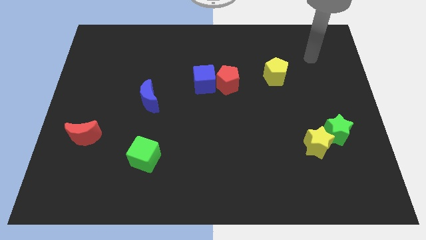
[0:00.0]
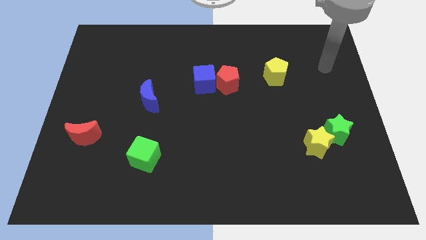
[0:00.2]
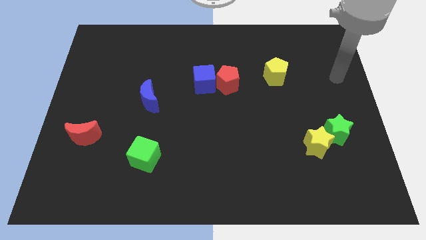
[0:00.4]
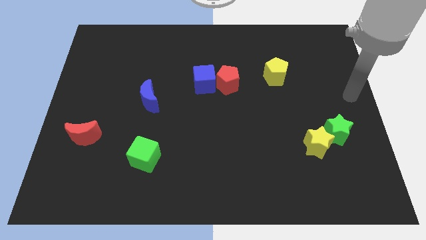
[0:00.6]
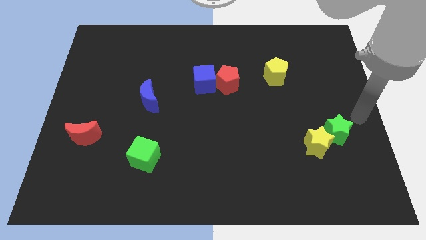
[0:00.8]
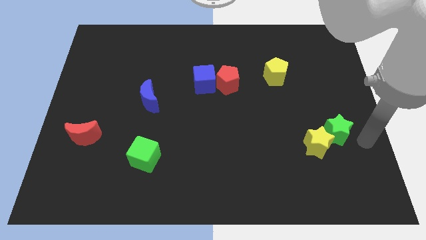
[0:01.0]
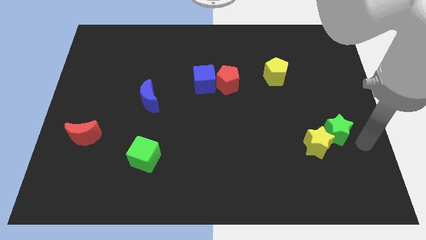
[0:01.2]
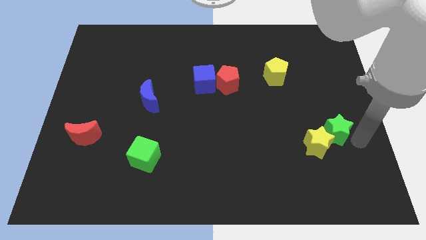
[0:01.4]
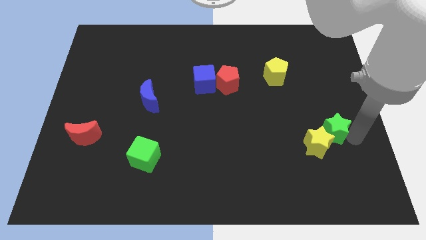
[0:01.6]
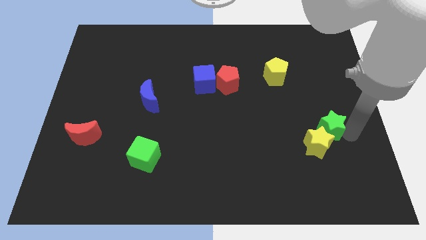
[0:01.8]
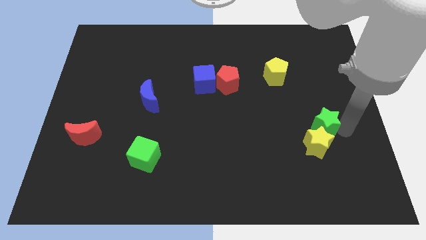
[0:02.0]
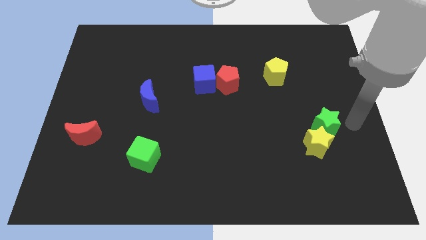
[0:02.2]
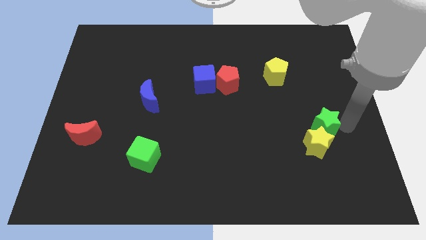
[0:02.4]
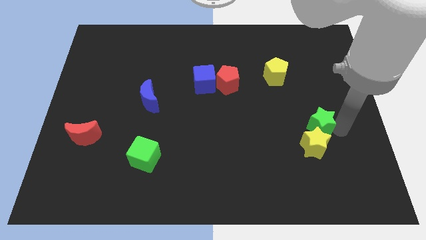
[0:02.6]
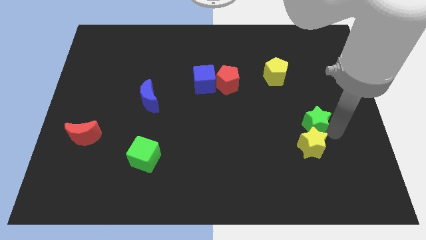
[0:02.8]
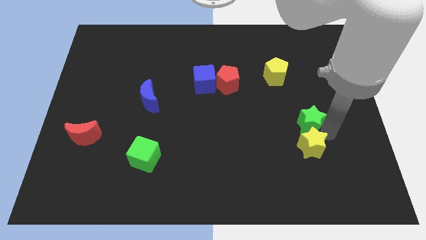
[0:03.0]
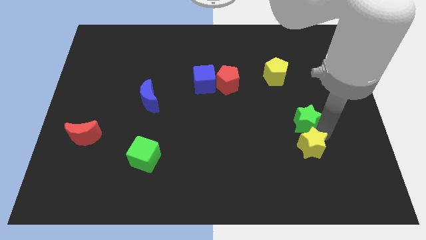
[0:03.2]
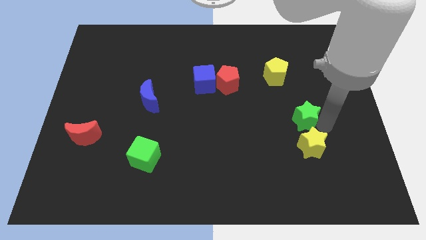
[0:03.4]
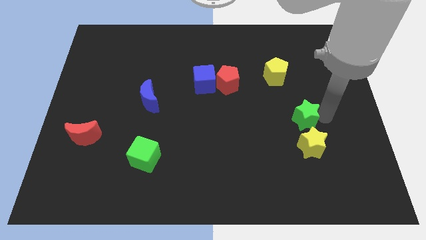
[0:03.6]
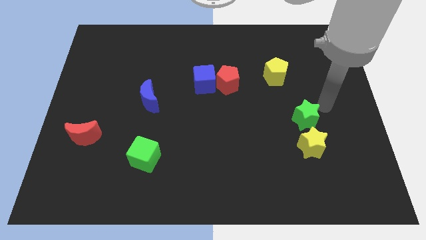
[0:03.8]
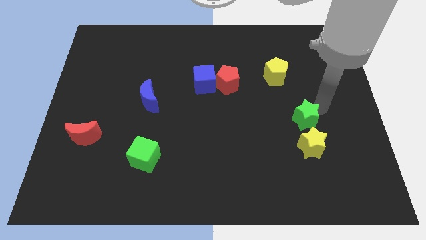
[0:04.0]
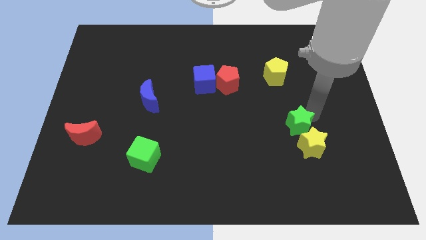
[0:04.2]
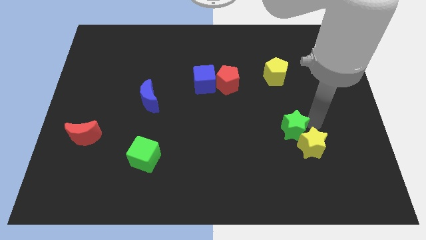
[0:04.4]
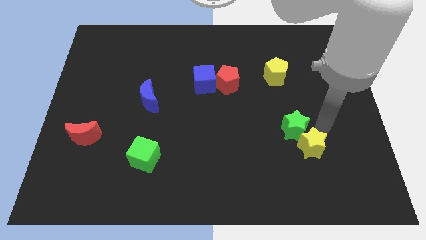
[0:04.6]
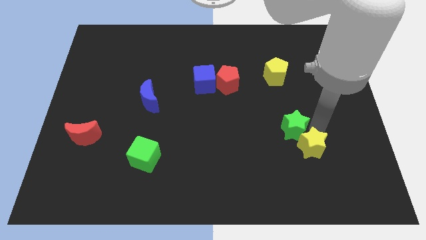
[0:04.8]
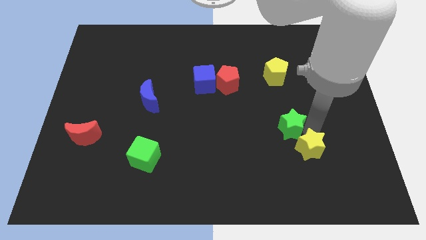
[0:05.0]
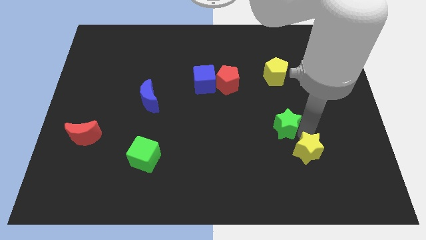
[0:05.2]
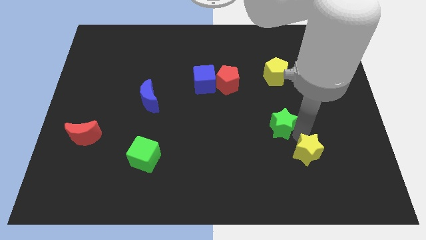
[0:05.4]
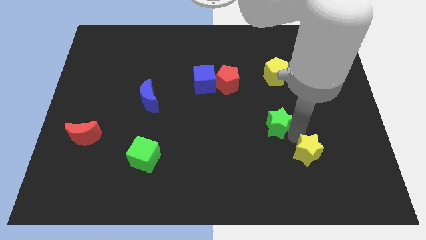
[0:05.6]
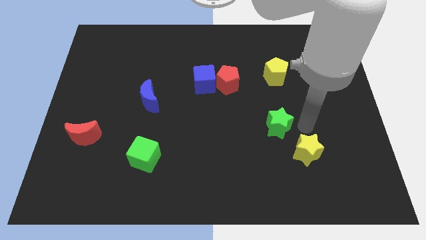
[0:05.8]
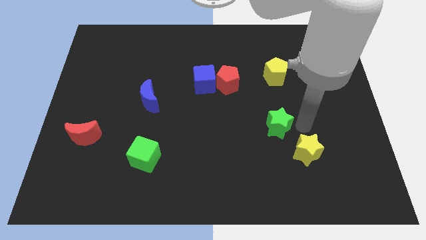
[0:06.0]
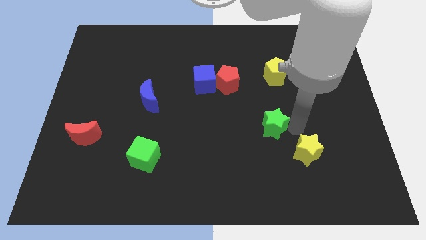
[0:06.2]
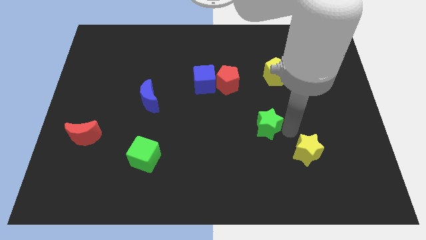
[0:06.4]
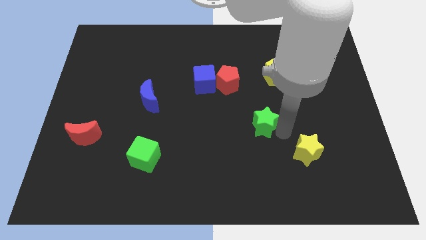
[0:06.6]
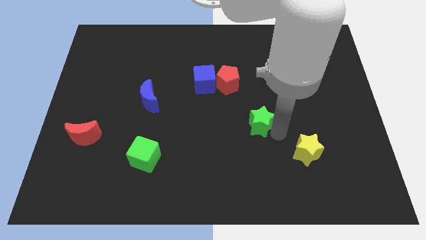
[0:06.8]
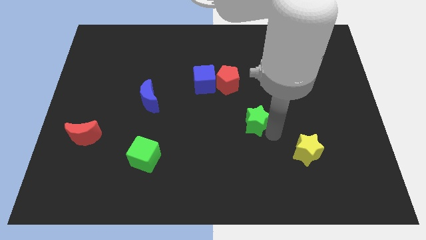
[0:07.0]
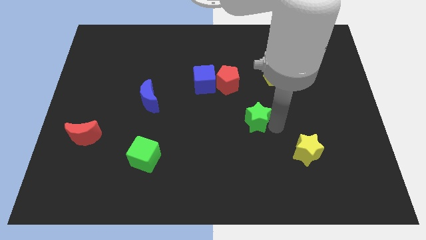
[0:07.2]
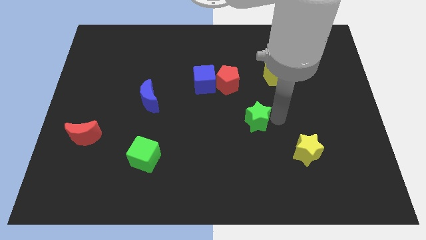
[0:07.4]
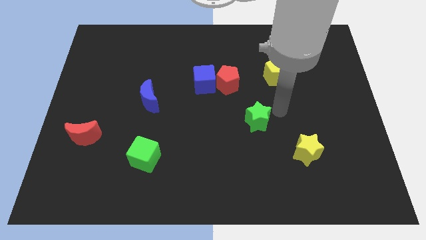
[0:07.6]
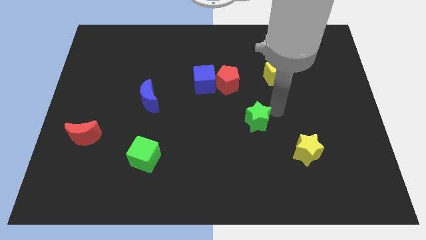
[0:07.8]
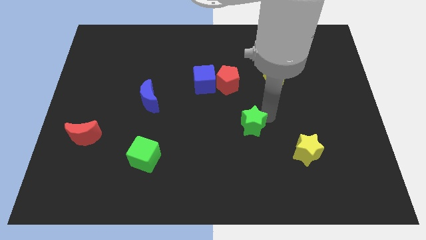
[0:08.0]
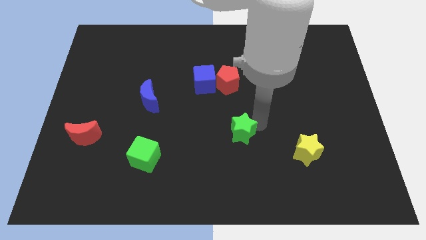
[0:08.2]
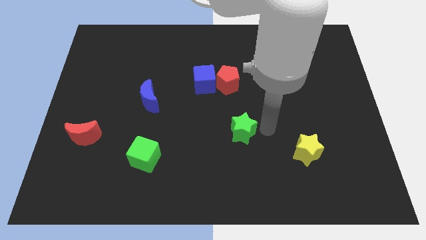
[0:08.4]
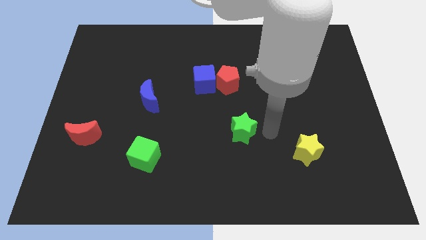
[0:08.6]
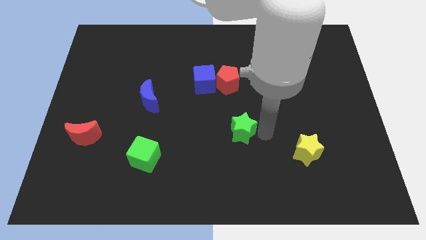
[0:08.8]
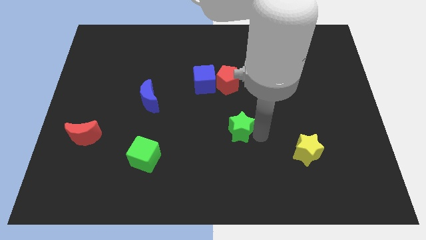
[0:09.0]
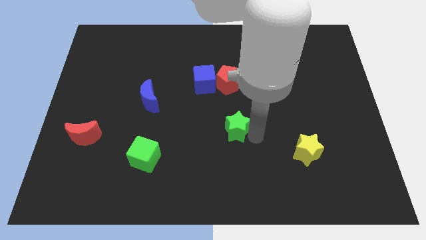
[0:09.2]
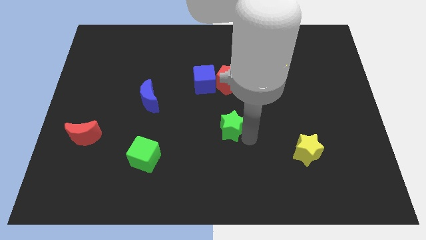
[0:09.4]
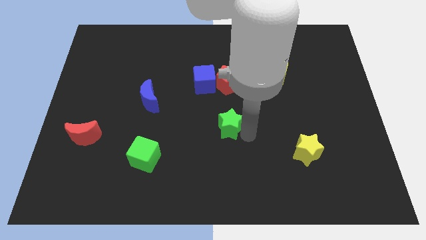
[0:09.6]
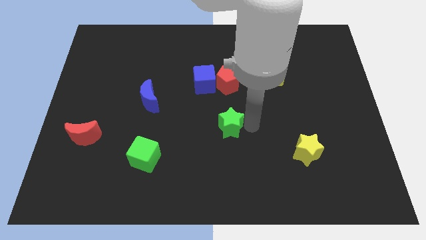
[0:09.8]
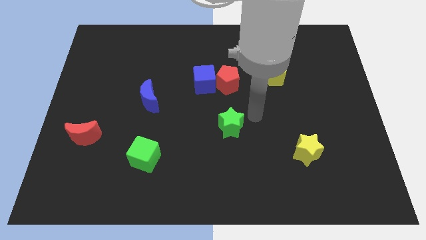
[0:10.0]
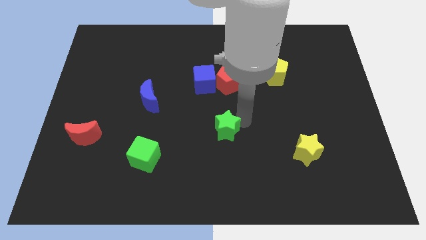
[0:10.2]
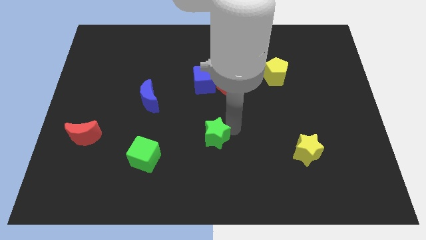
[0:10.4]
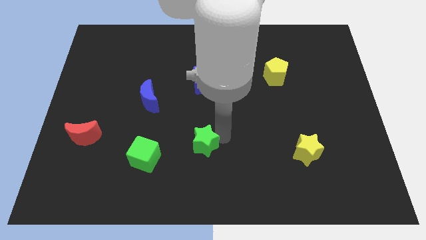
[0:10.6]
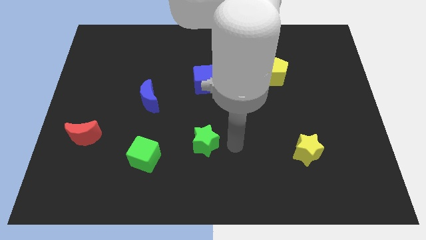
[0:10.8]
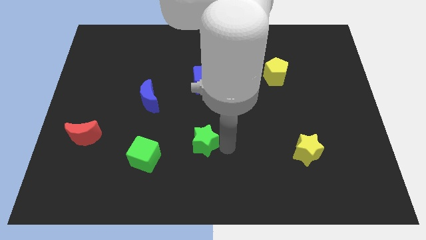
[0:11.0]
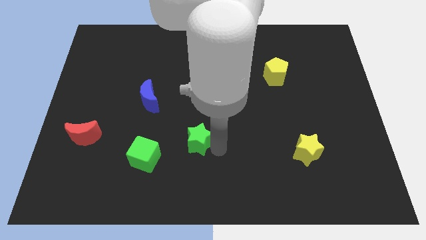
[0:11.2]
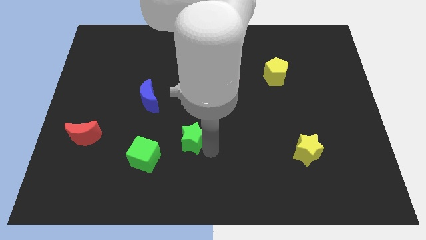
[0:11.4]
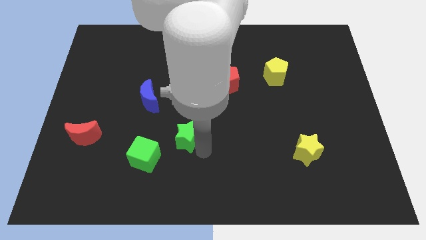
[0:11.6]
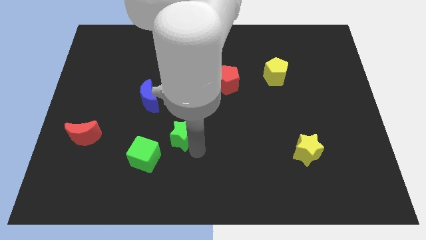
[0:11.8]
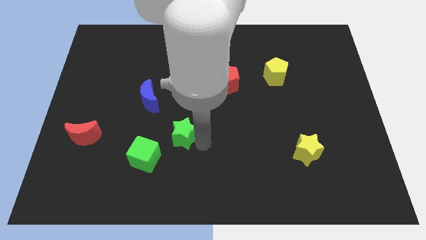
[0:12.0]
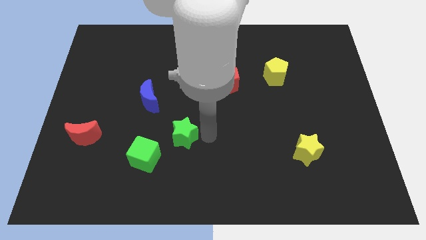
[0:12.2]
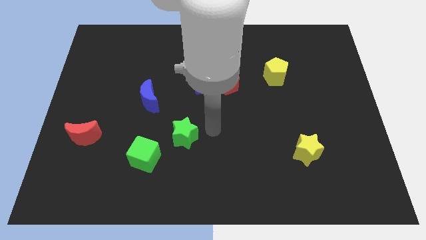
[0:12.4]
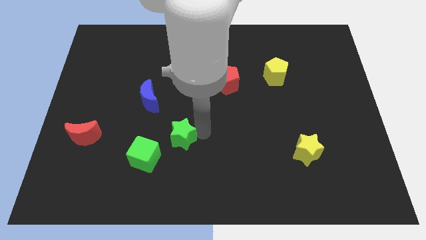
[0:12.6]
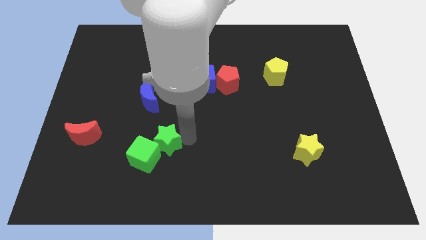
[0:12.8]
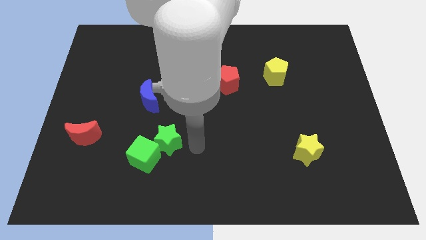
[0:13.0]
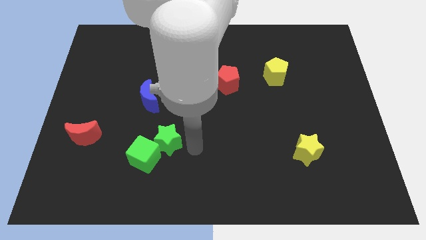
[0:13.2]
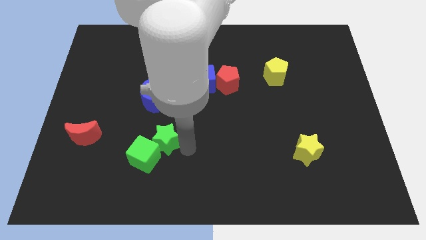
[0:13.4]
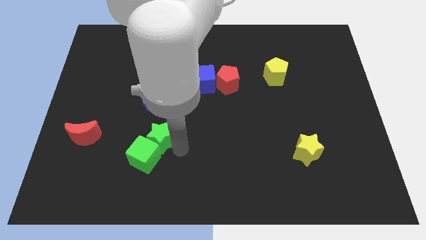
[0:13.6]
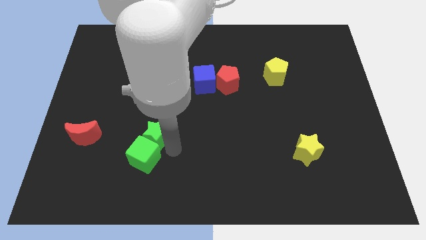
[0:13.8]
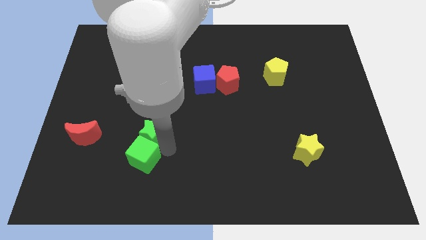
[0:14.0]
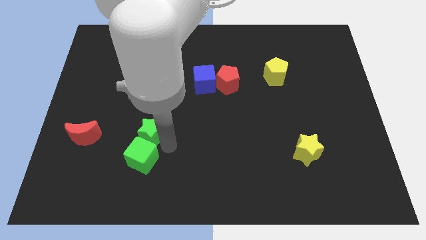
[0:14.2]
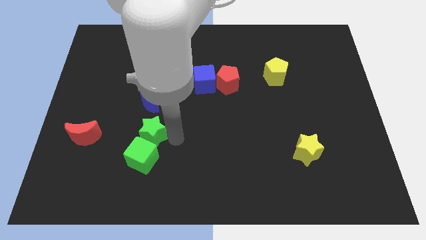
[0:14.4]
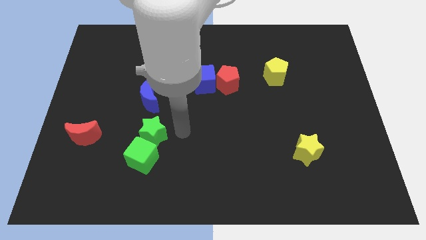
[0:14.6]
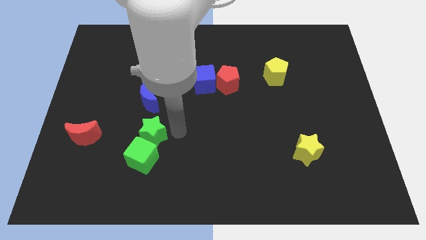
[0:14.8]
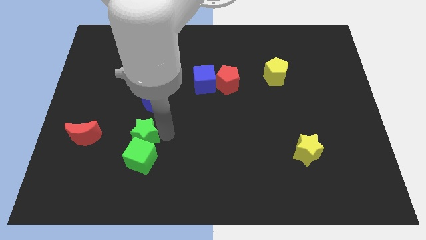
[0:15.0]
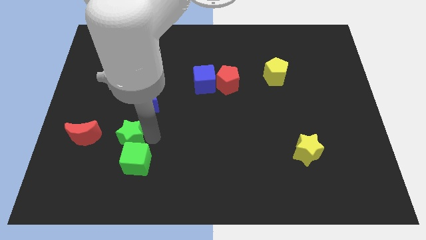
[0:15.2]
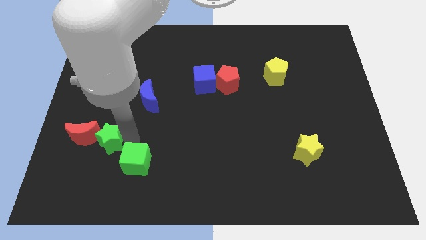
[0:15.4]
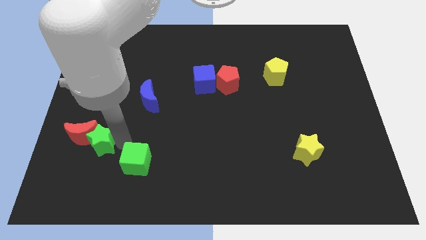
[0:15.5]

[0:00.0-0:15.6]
move the green star towards the red moon

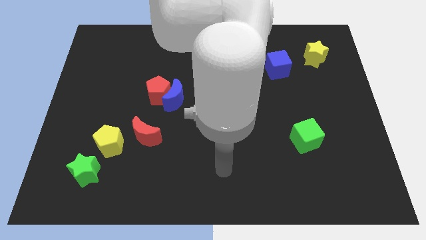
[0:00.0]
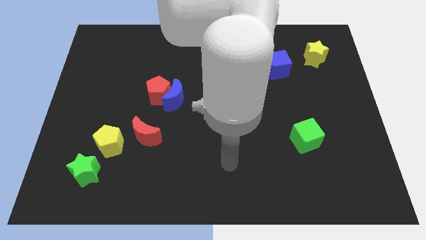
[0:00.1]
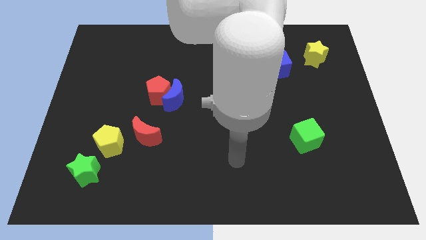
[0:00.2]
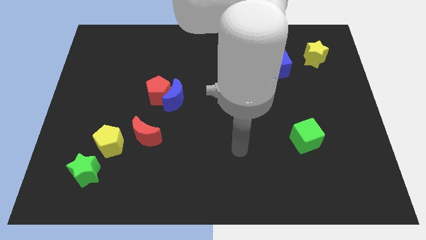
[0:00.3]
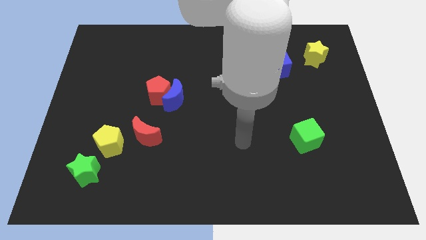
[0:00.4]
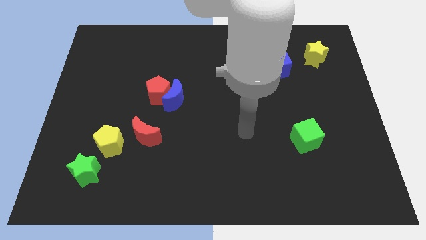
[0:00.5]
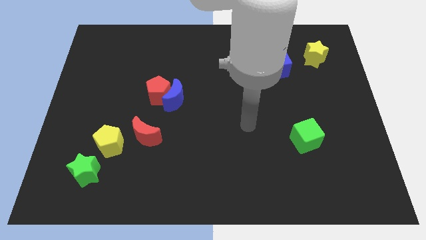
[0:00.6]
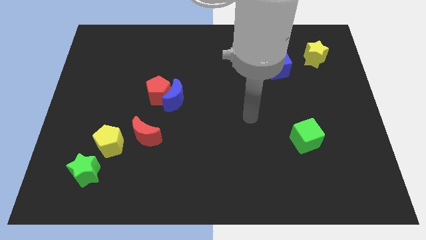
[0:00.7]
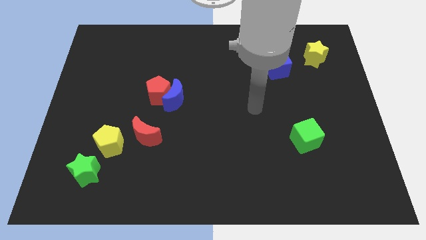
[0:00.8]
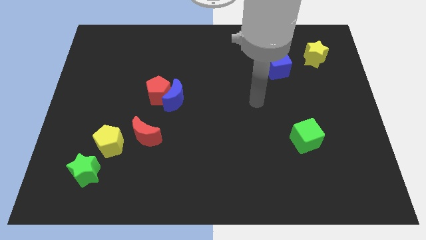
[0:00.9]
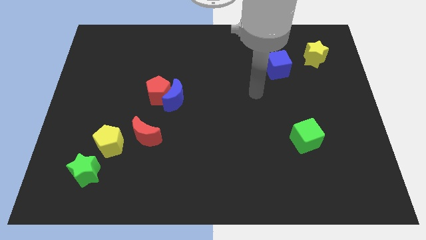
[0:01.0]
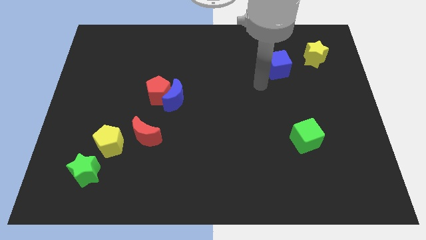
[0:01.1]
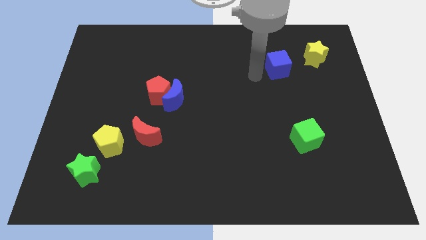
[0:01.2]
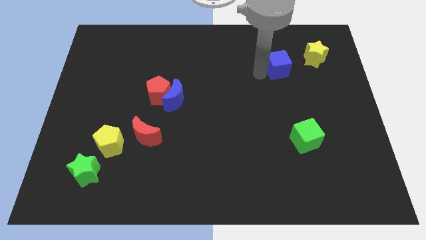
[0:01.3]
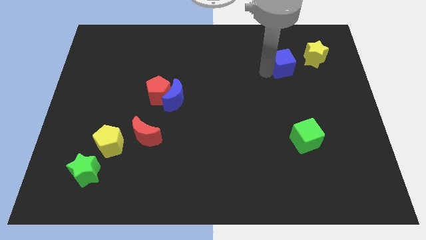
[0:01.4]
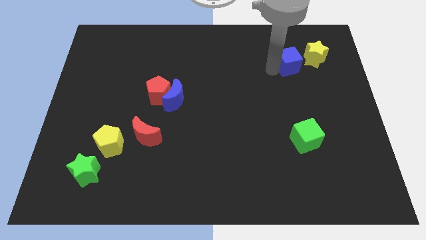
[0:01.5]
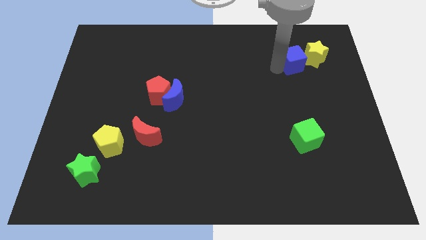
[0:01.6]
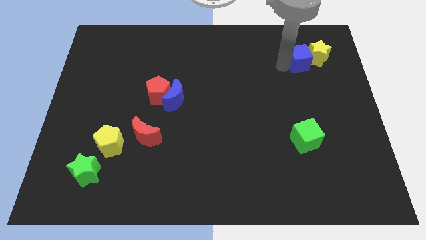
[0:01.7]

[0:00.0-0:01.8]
push the blue cube towards the yellow star
